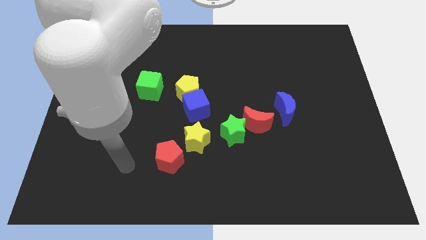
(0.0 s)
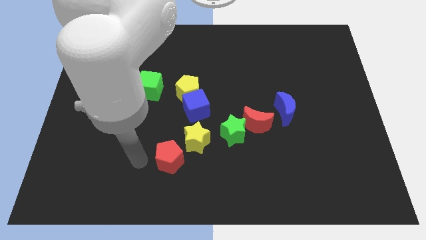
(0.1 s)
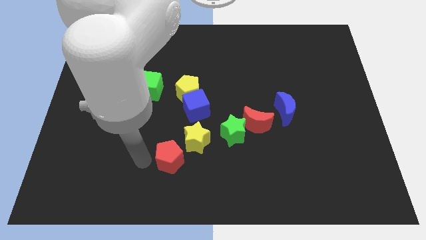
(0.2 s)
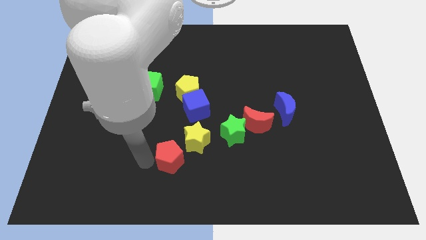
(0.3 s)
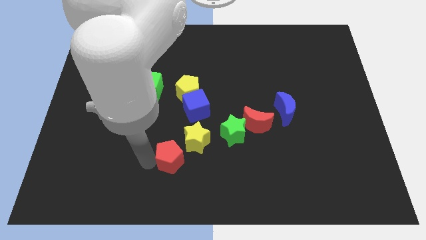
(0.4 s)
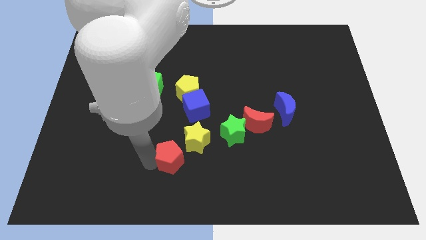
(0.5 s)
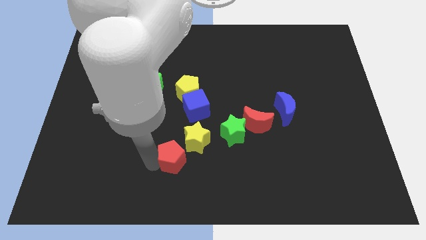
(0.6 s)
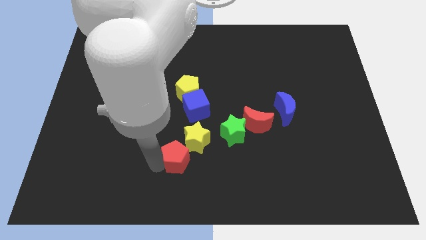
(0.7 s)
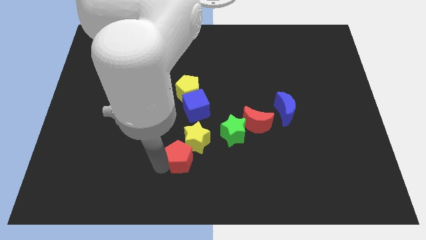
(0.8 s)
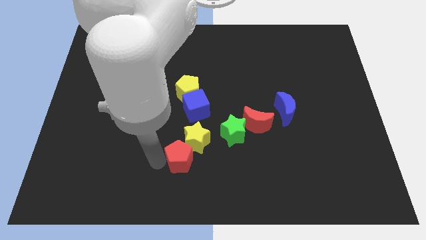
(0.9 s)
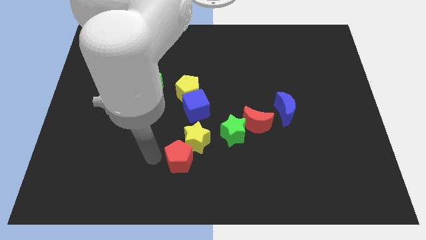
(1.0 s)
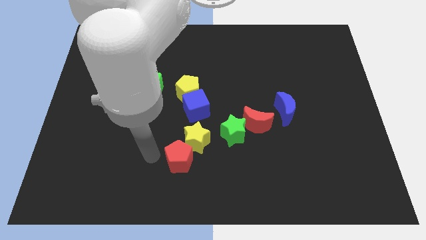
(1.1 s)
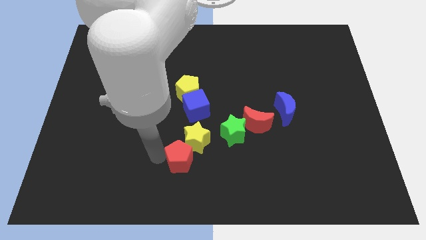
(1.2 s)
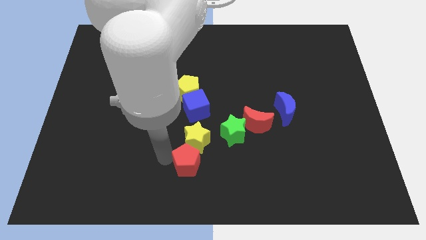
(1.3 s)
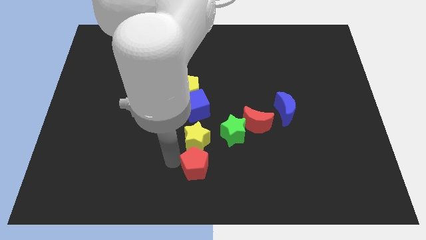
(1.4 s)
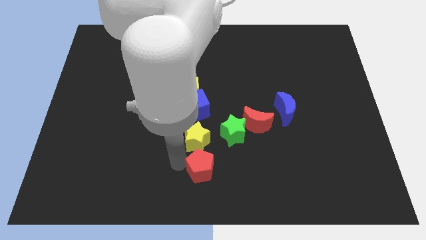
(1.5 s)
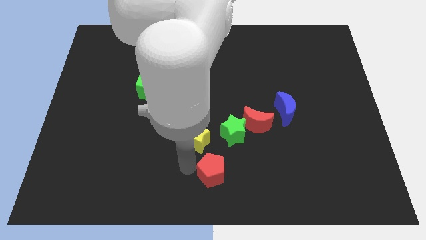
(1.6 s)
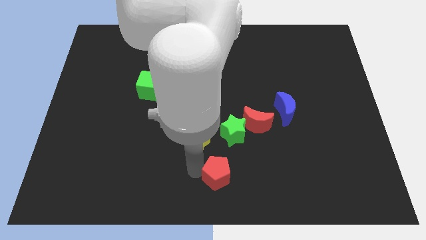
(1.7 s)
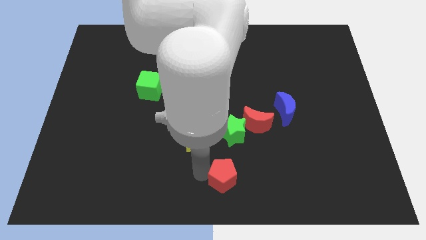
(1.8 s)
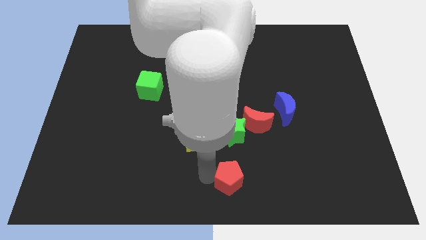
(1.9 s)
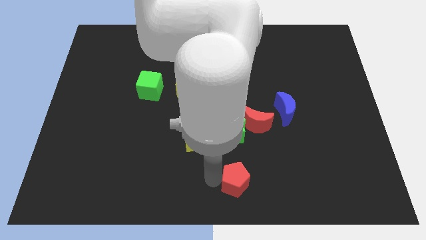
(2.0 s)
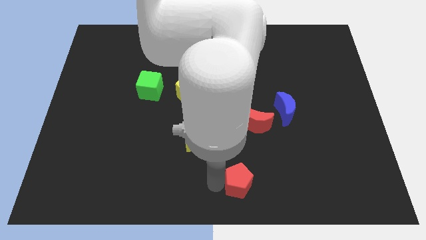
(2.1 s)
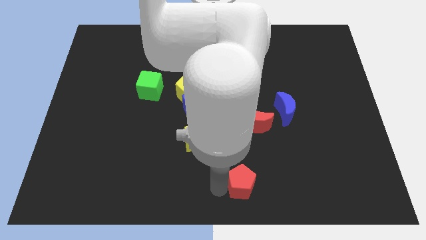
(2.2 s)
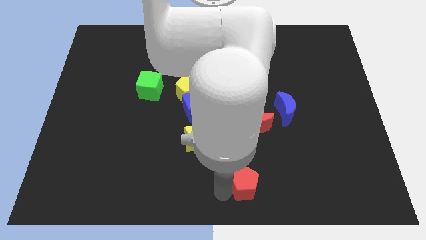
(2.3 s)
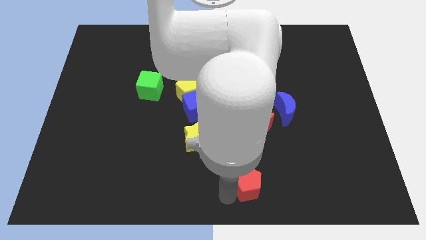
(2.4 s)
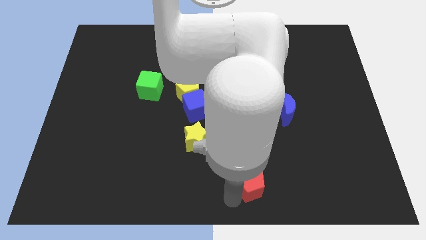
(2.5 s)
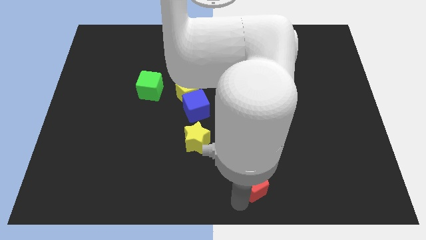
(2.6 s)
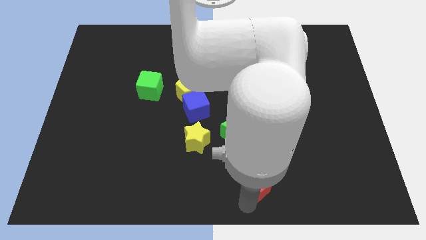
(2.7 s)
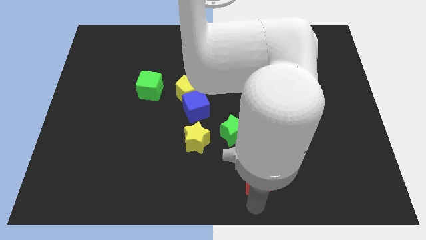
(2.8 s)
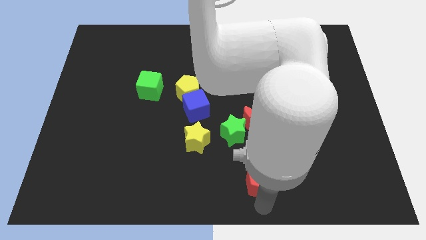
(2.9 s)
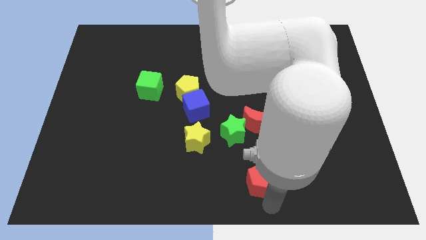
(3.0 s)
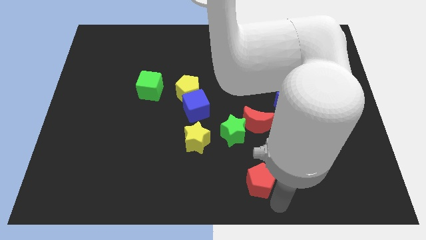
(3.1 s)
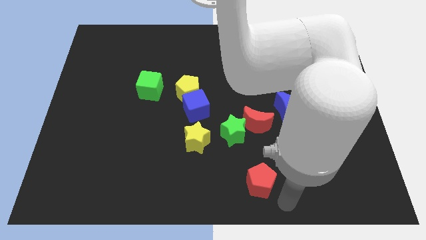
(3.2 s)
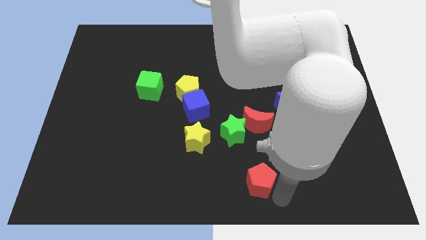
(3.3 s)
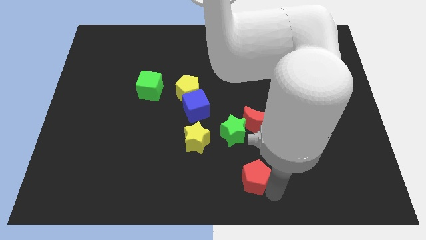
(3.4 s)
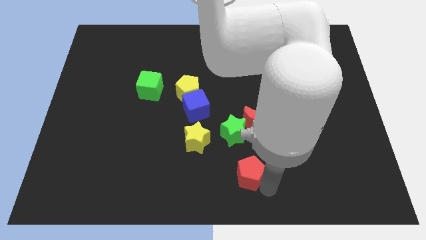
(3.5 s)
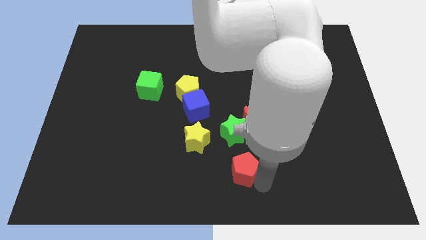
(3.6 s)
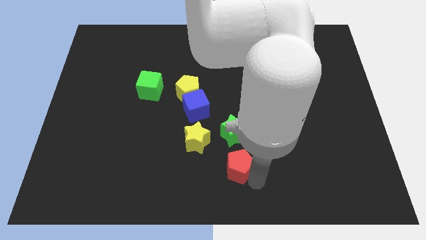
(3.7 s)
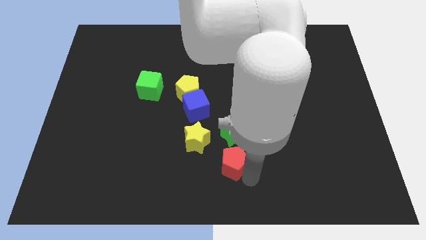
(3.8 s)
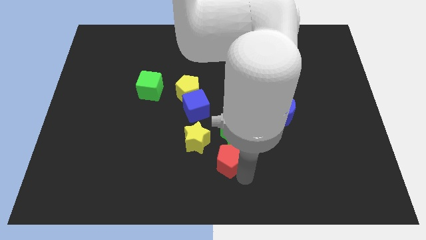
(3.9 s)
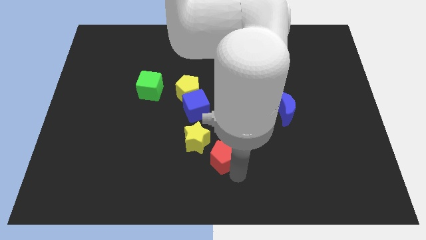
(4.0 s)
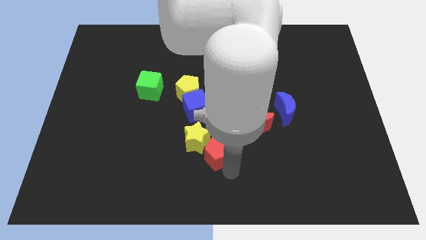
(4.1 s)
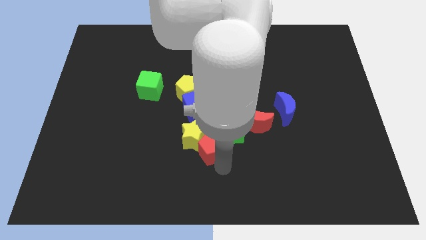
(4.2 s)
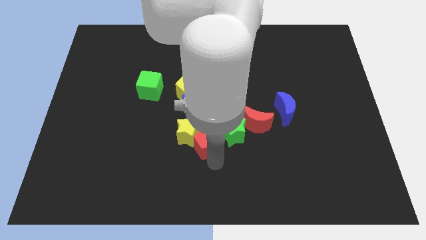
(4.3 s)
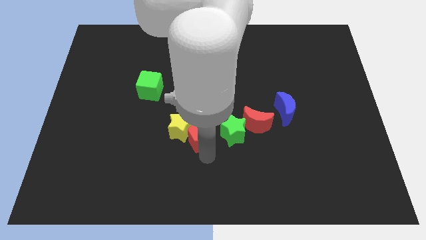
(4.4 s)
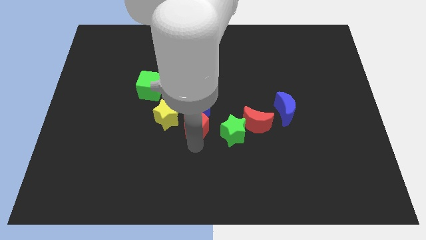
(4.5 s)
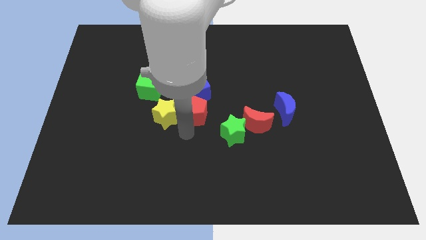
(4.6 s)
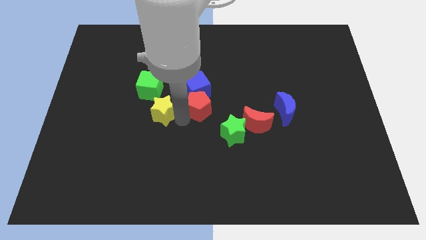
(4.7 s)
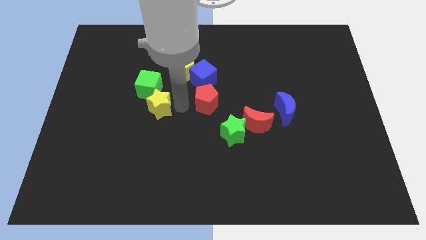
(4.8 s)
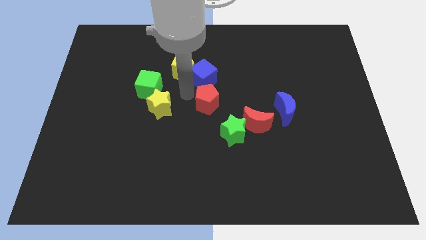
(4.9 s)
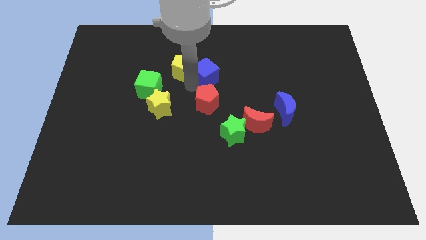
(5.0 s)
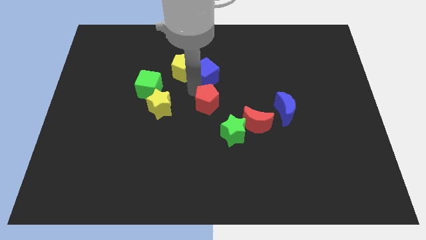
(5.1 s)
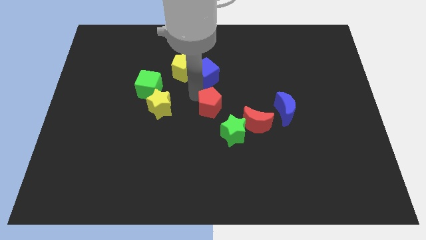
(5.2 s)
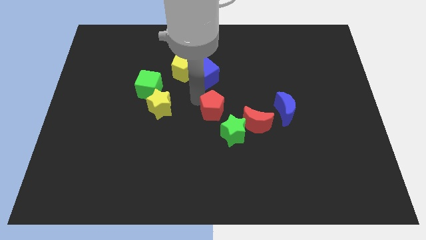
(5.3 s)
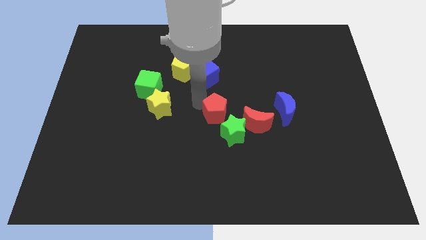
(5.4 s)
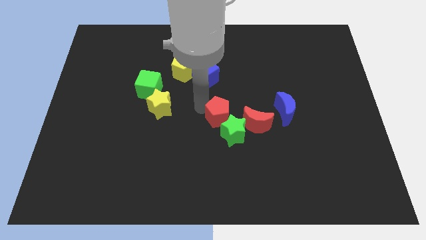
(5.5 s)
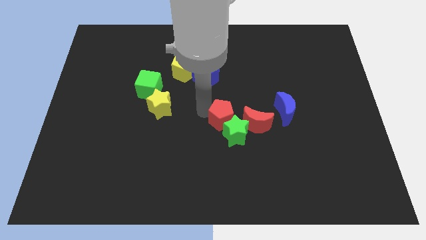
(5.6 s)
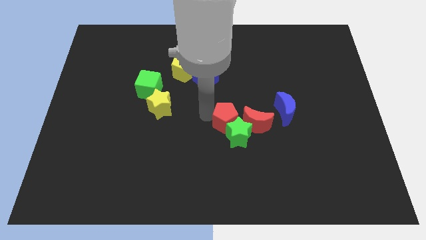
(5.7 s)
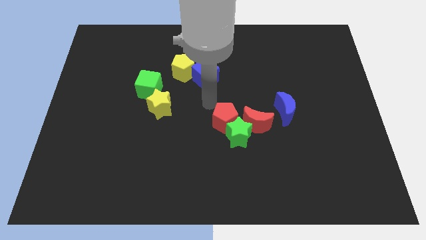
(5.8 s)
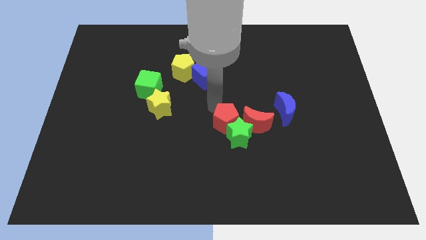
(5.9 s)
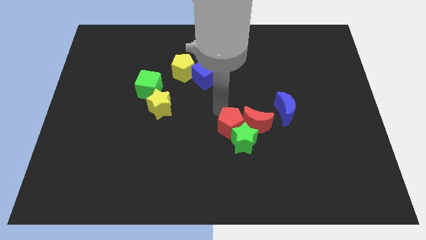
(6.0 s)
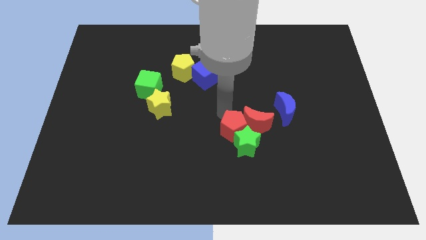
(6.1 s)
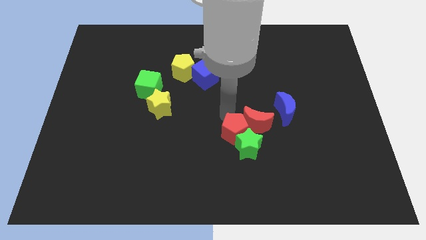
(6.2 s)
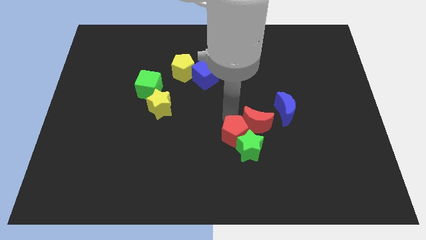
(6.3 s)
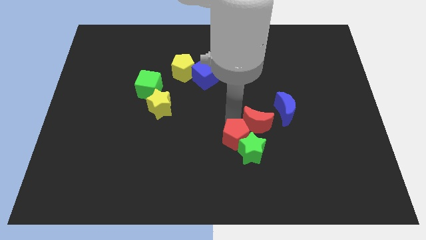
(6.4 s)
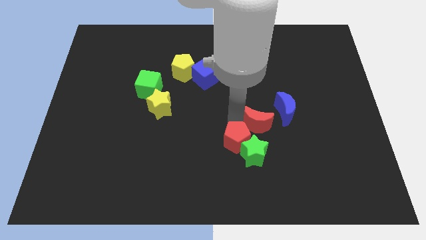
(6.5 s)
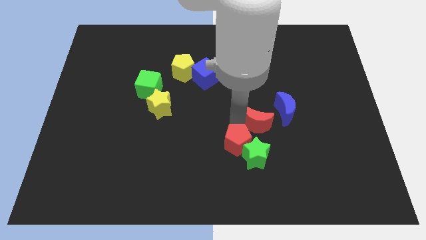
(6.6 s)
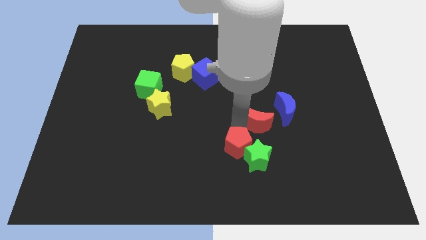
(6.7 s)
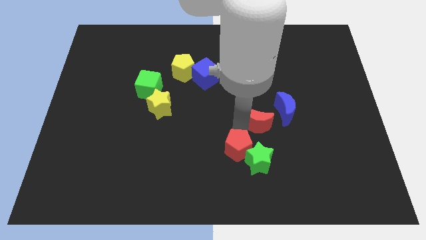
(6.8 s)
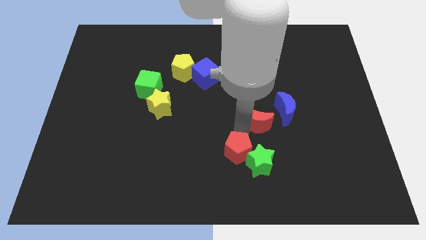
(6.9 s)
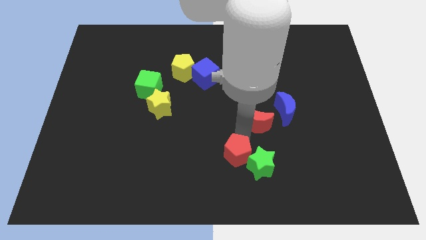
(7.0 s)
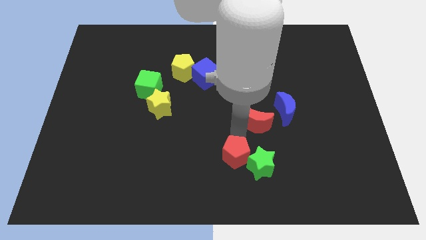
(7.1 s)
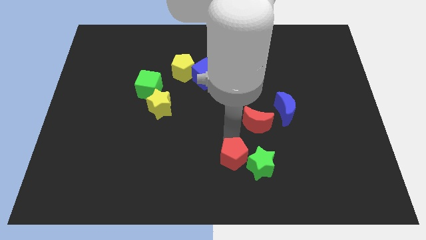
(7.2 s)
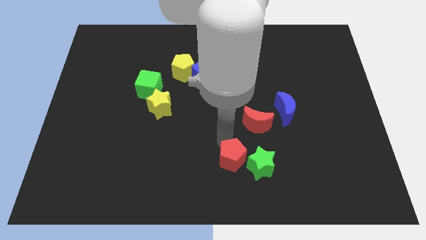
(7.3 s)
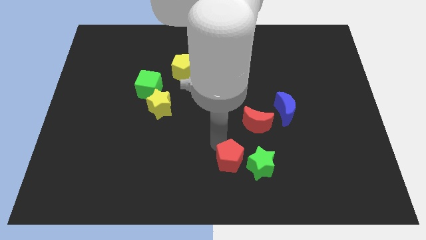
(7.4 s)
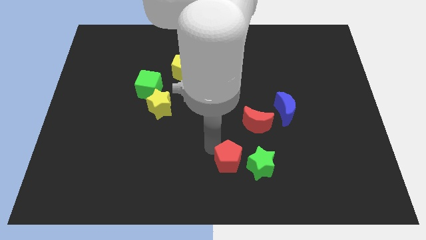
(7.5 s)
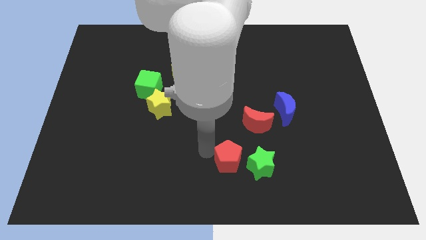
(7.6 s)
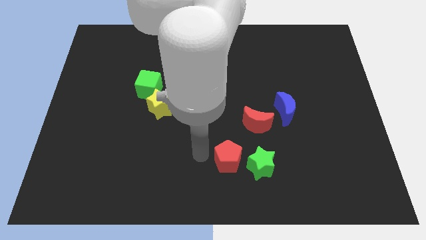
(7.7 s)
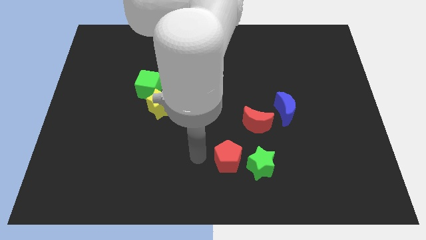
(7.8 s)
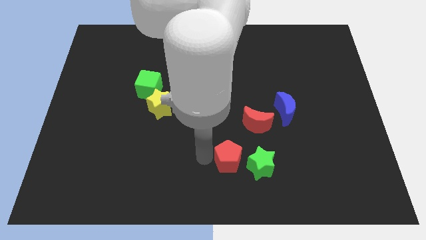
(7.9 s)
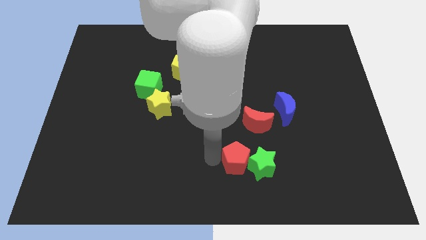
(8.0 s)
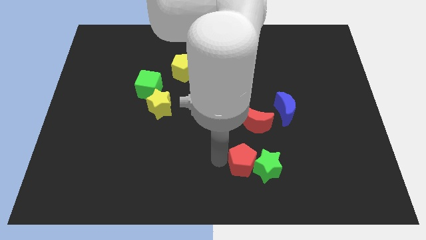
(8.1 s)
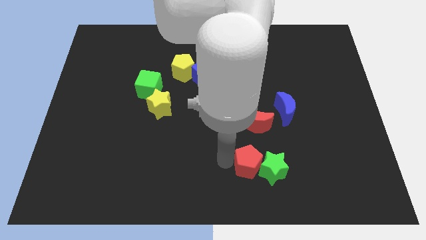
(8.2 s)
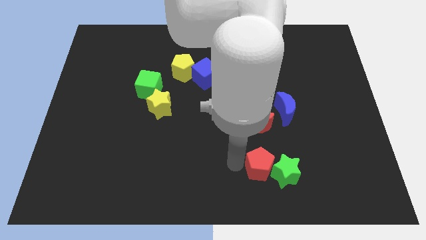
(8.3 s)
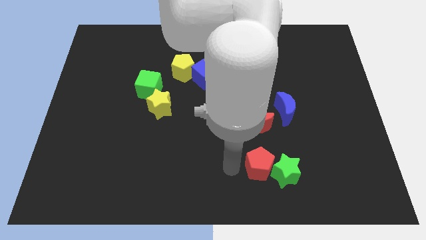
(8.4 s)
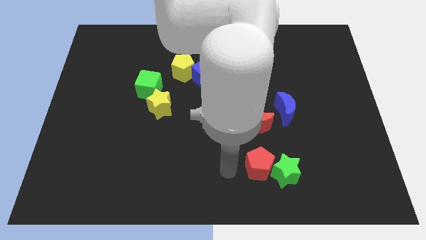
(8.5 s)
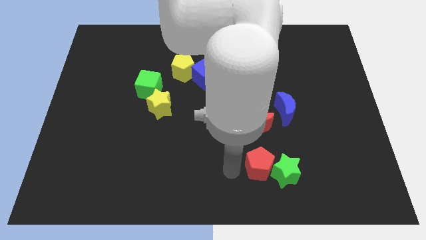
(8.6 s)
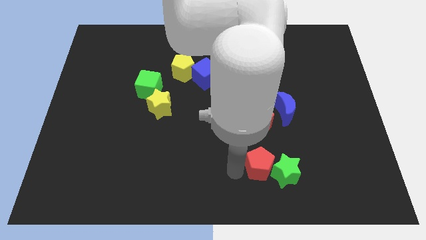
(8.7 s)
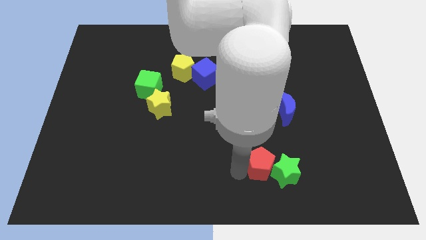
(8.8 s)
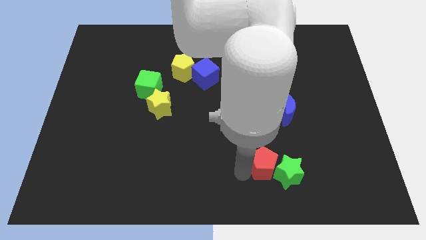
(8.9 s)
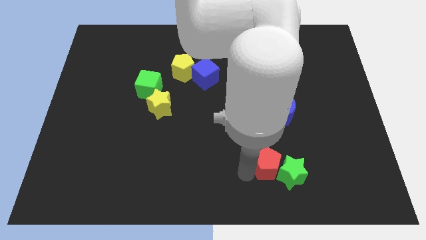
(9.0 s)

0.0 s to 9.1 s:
push the red pentagon to the right
